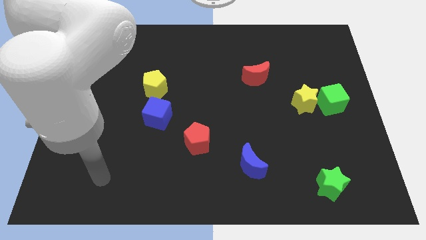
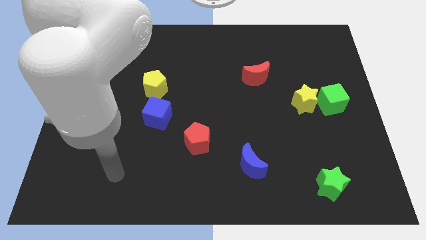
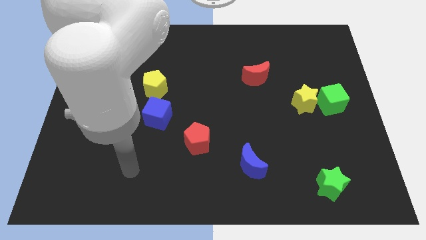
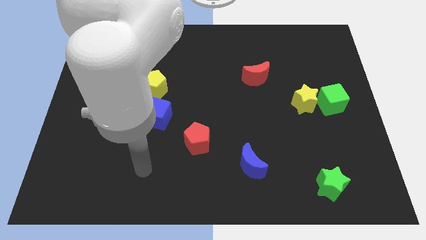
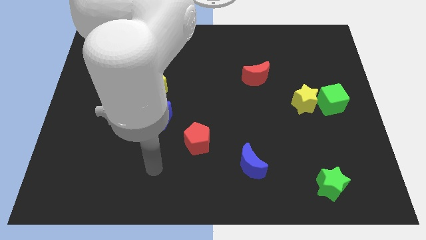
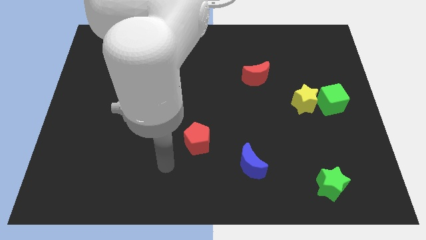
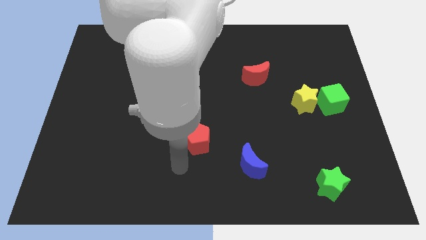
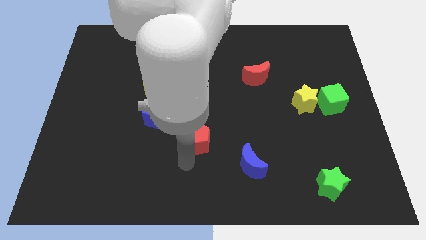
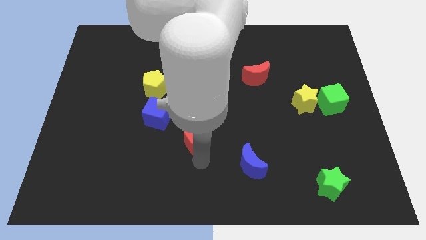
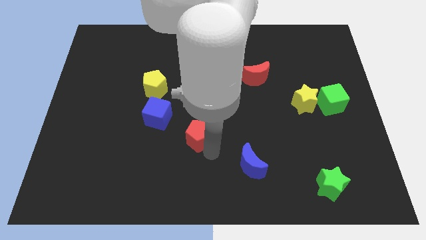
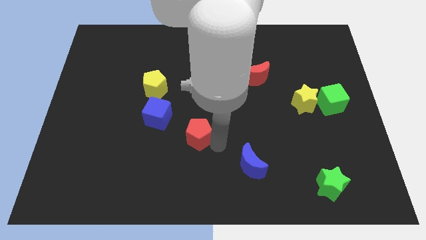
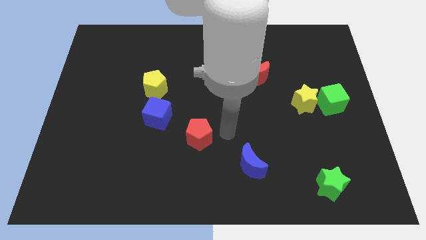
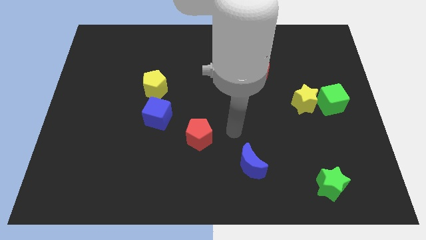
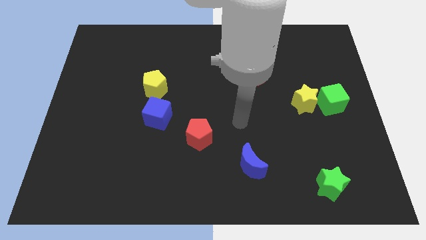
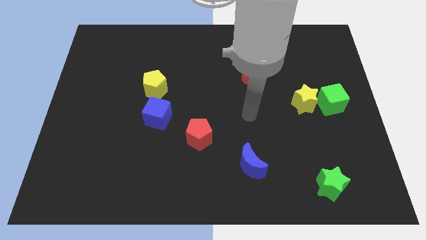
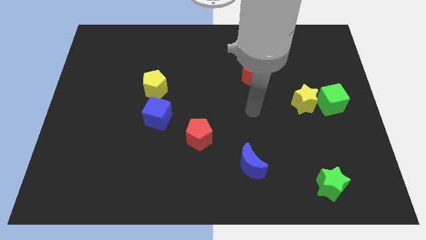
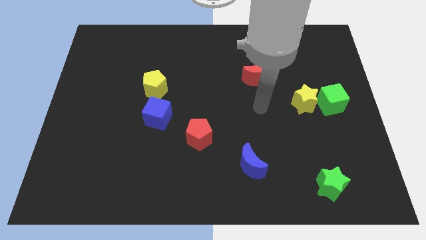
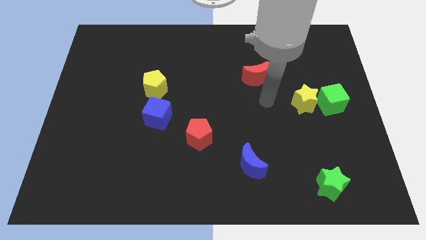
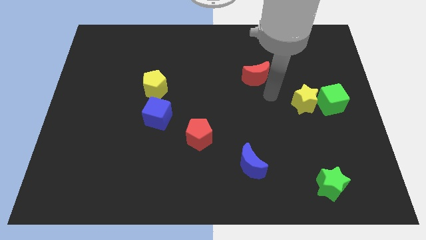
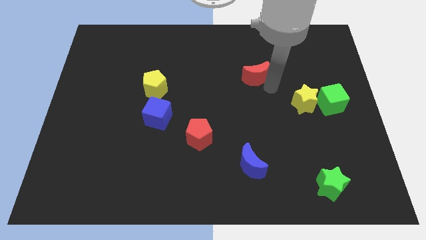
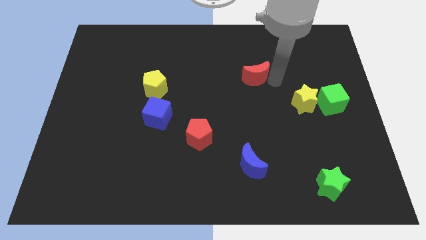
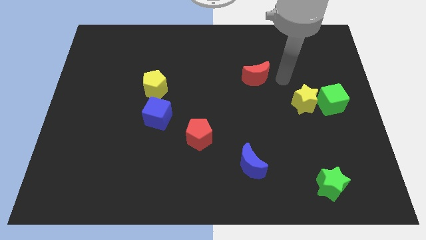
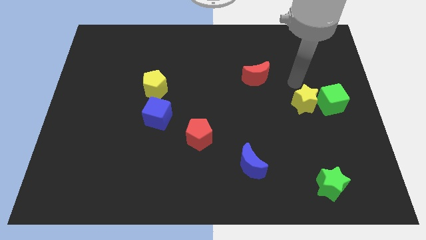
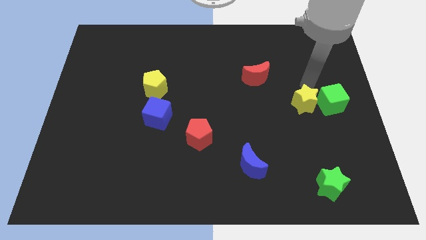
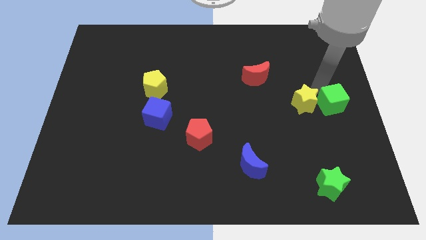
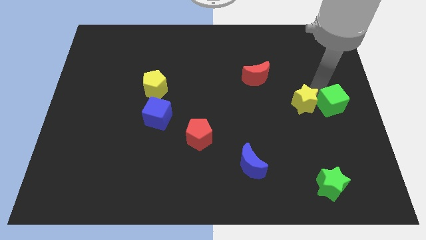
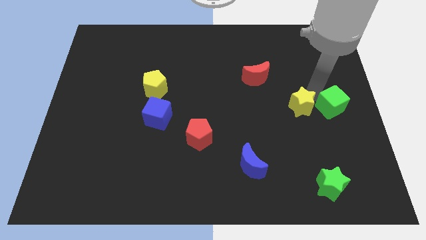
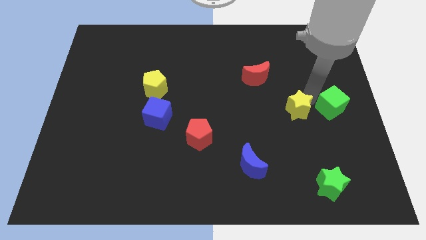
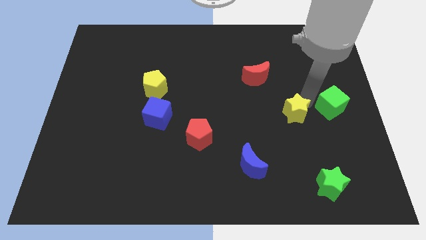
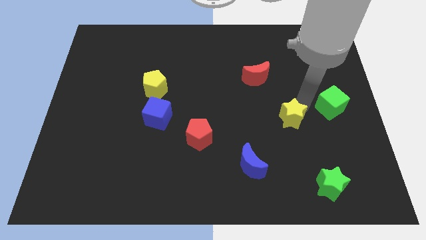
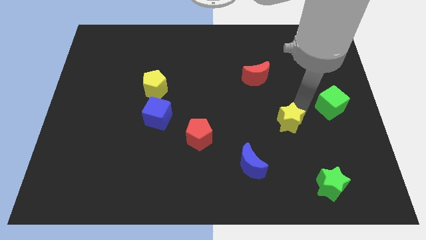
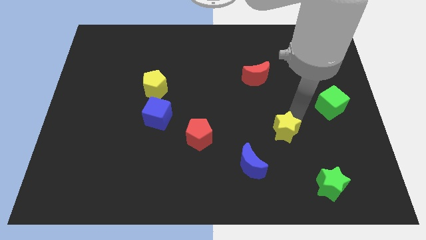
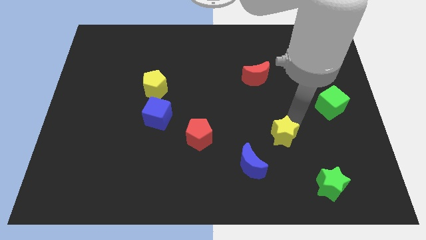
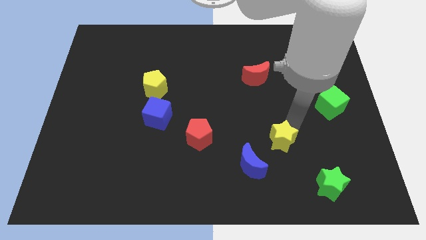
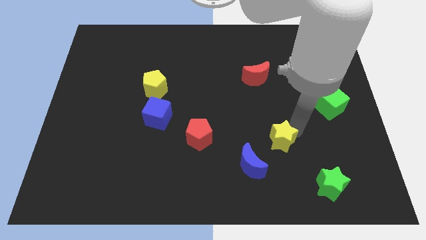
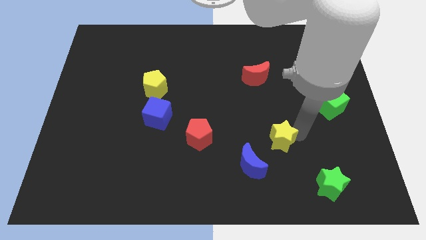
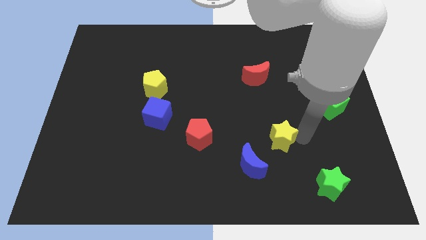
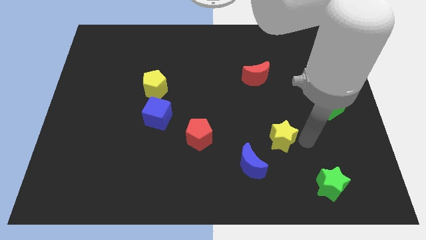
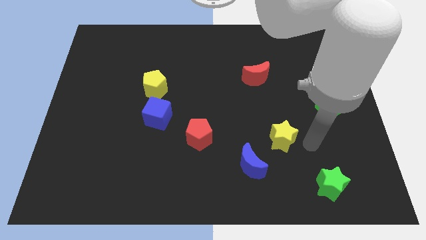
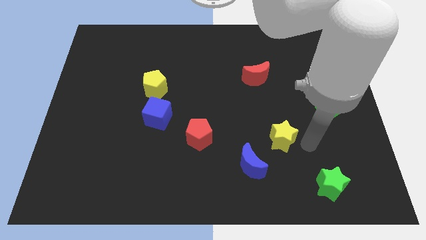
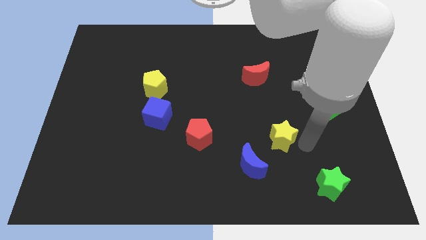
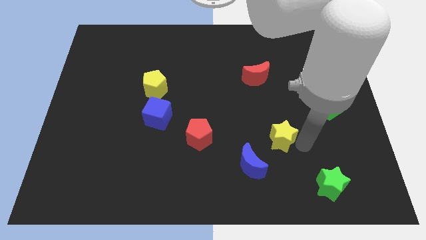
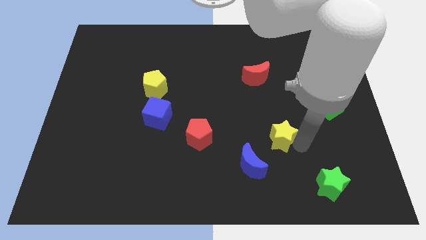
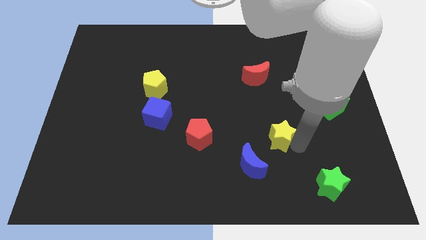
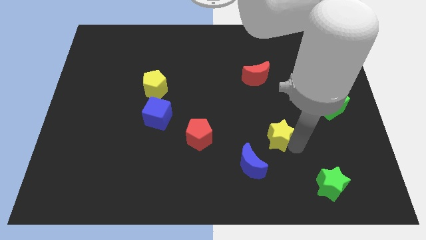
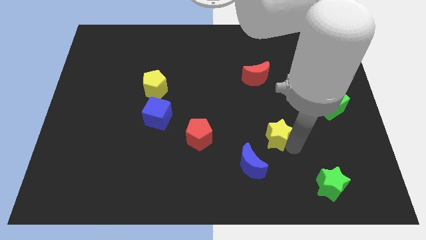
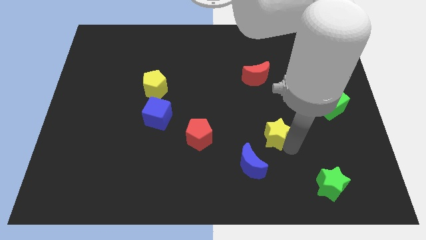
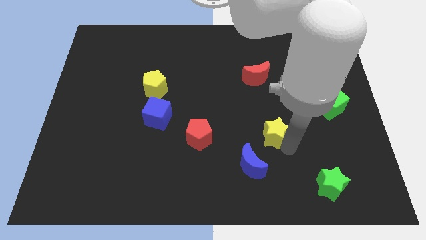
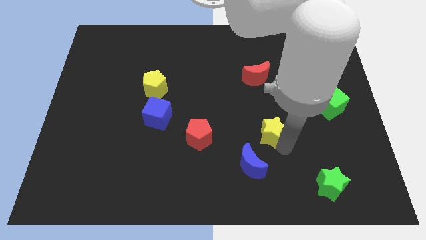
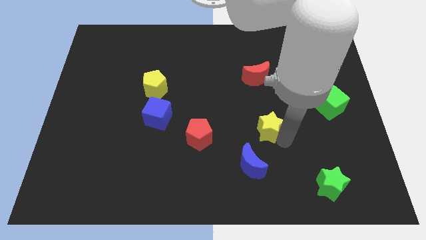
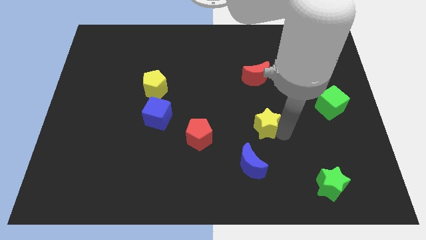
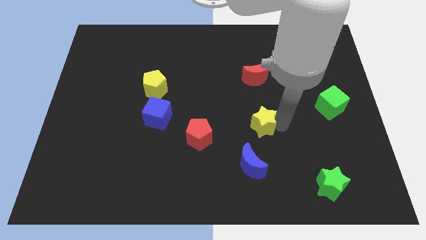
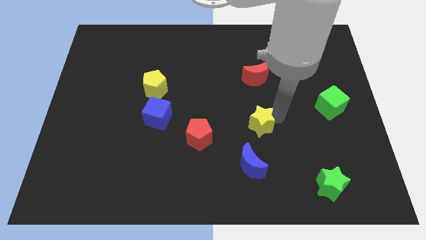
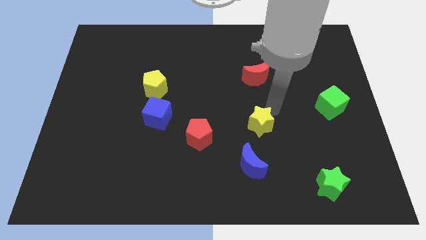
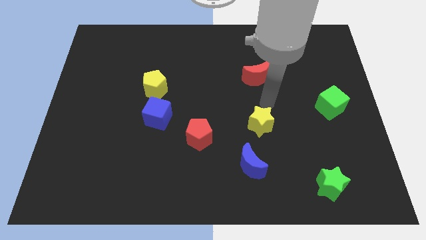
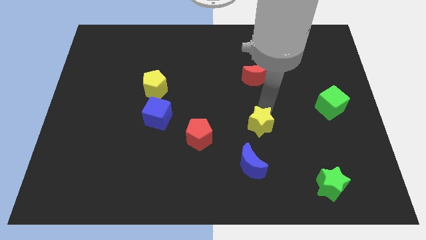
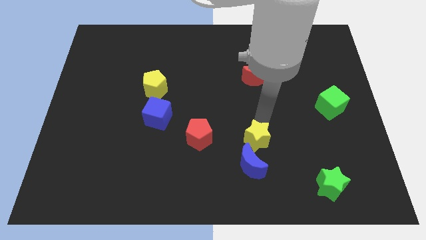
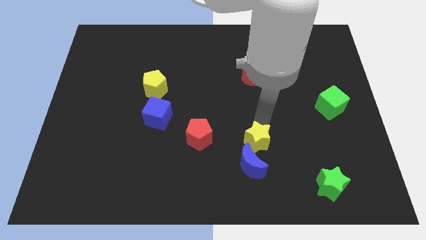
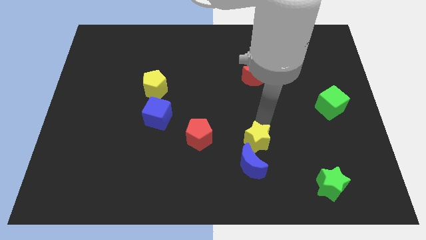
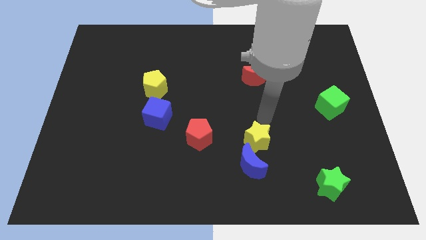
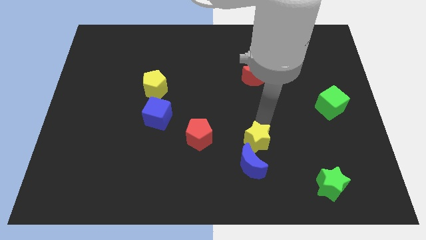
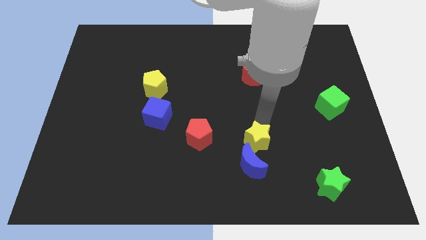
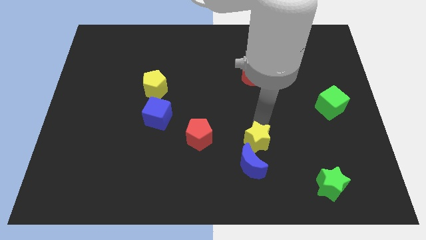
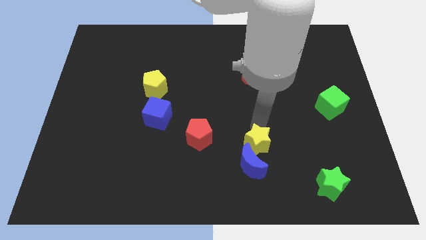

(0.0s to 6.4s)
put the yellow star towards the blue moon

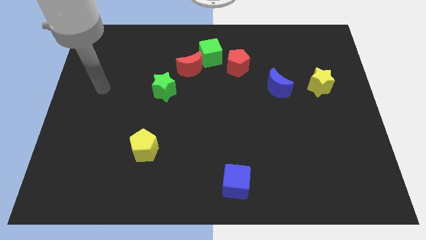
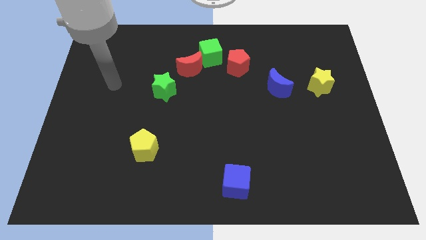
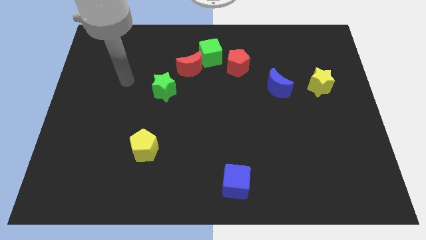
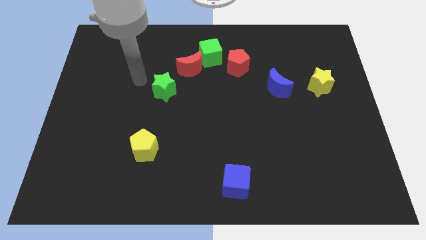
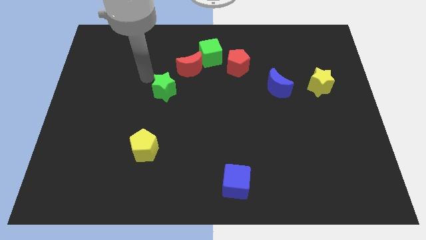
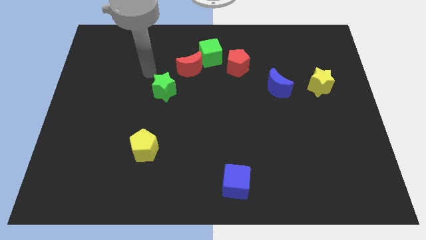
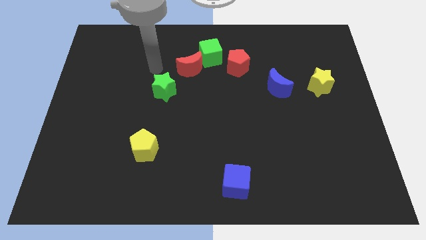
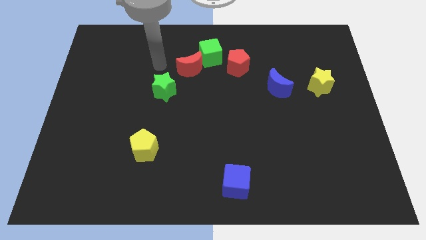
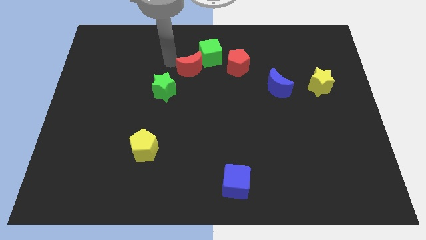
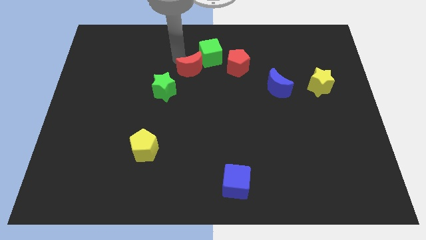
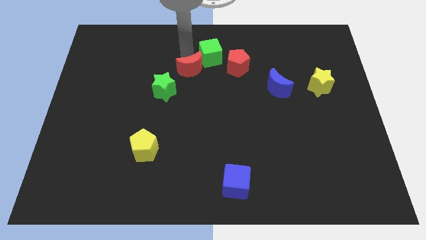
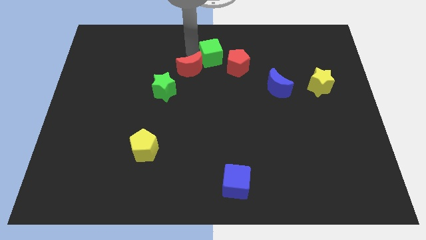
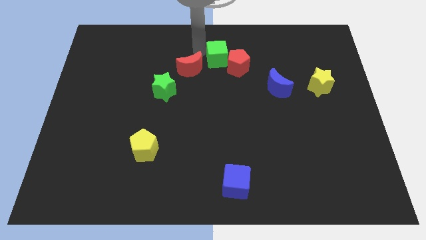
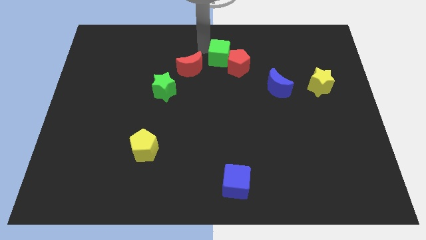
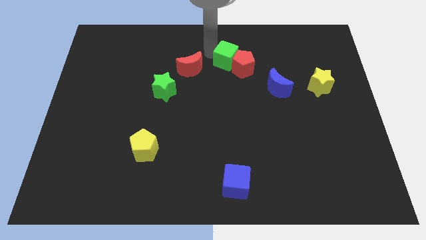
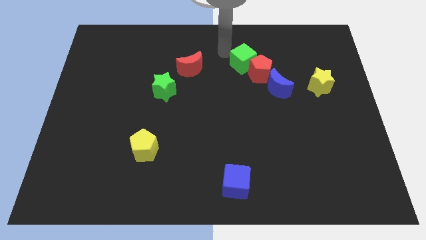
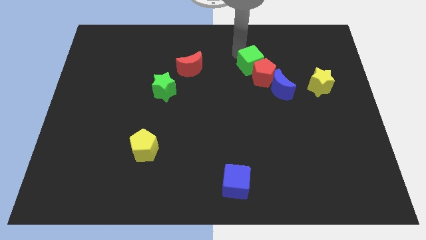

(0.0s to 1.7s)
put the red pentagon towards the blue moon
